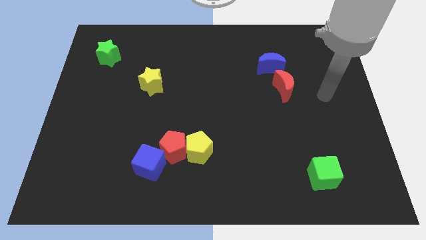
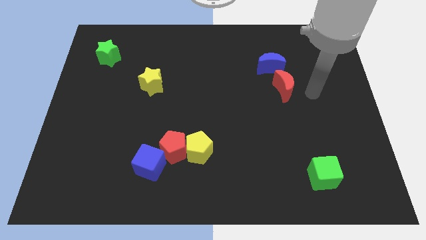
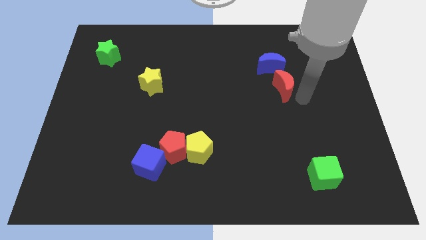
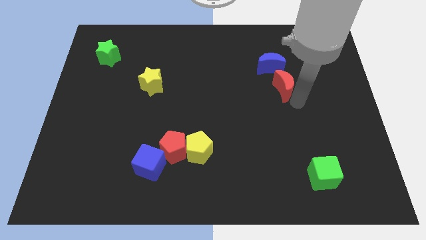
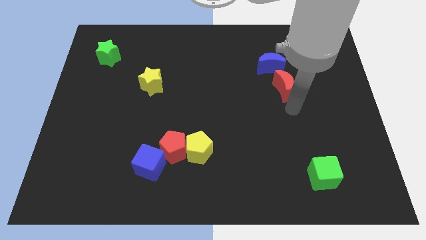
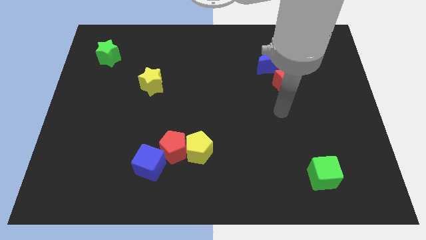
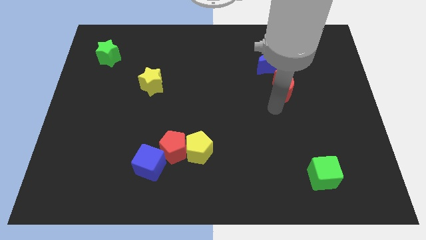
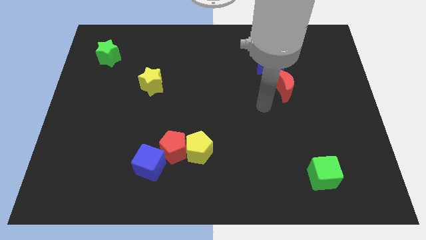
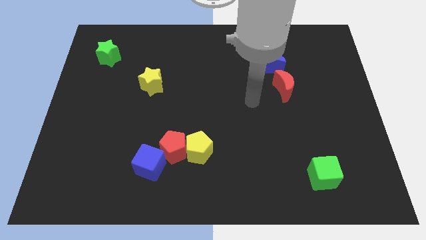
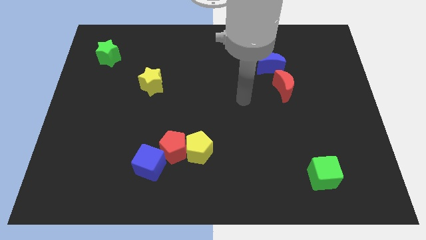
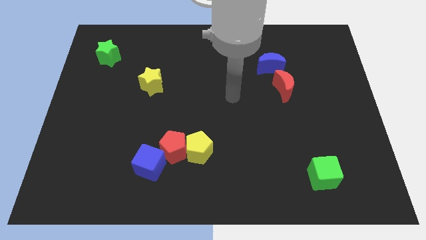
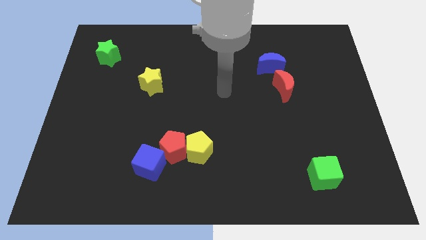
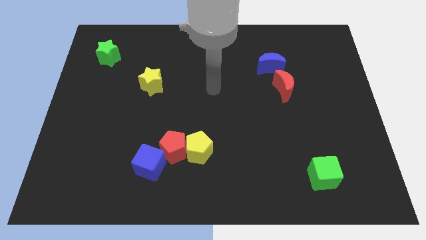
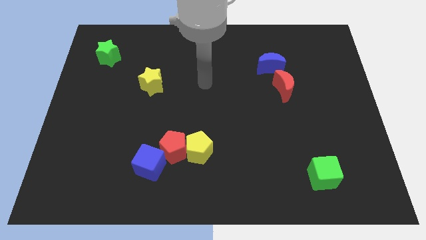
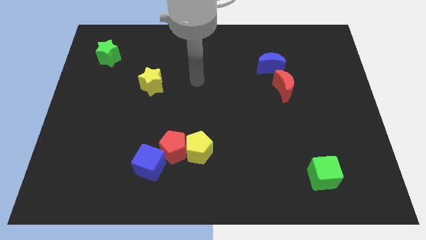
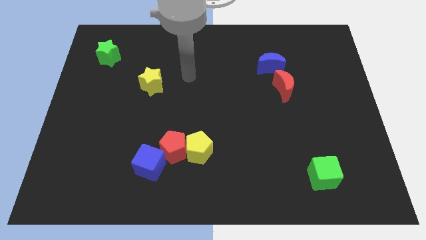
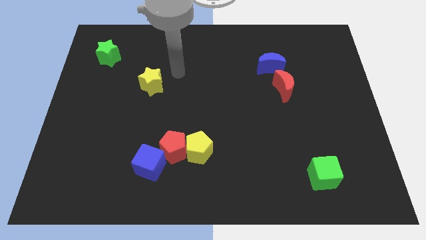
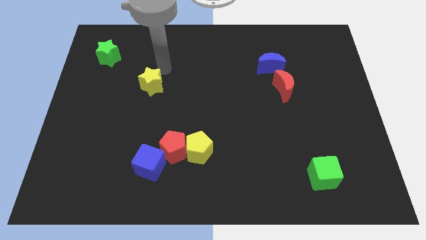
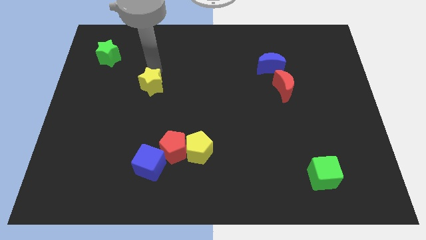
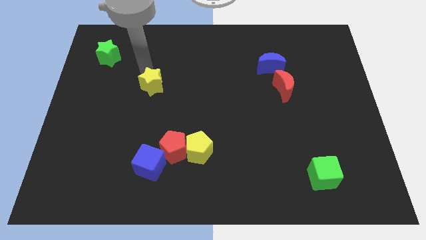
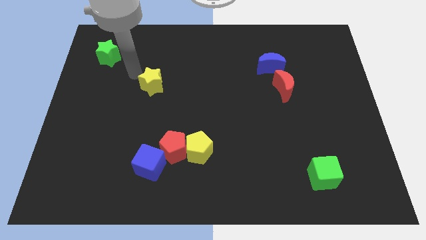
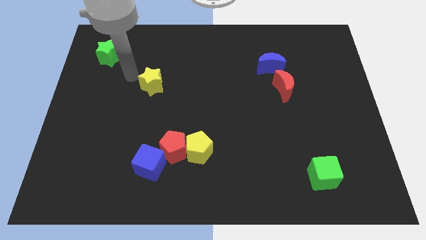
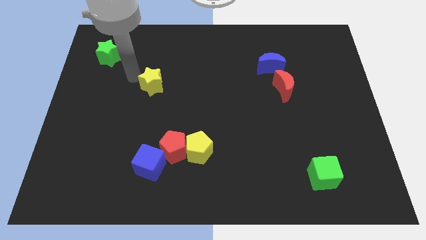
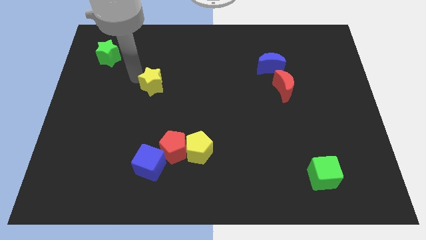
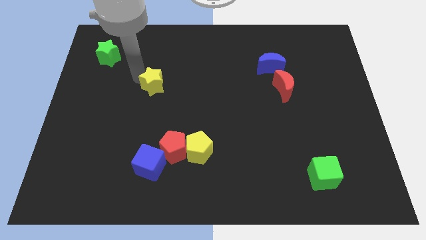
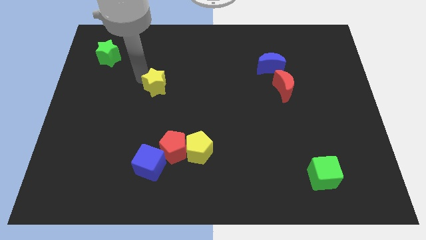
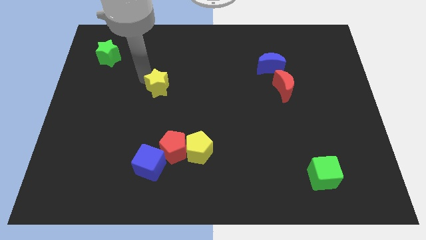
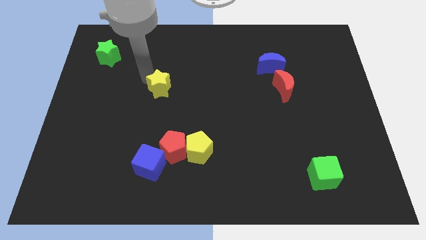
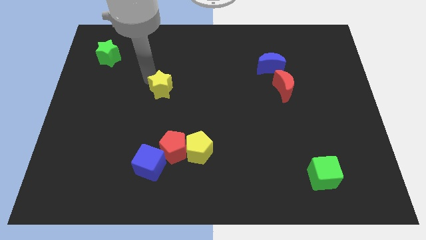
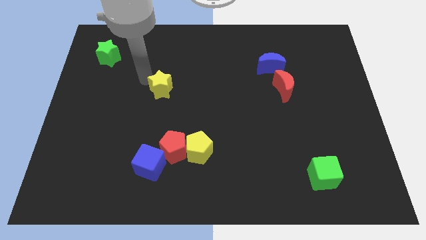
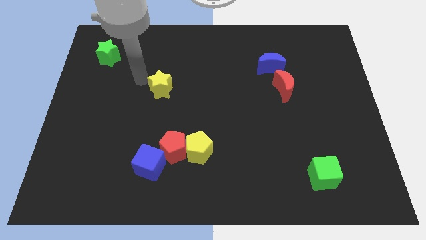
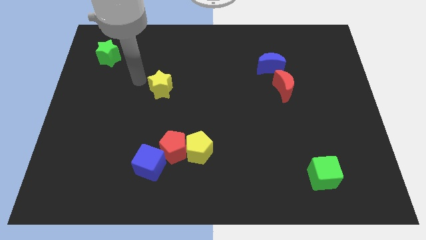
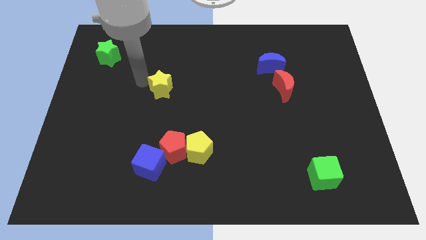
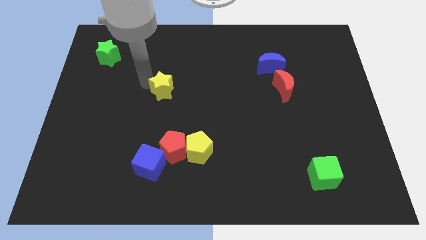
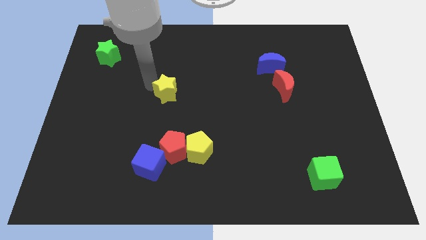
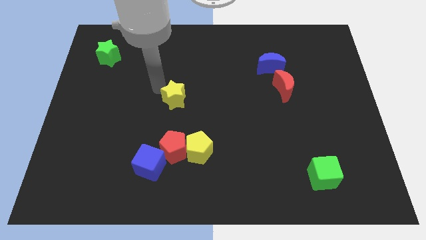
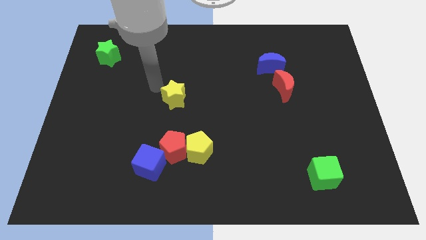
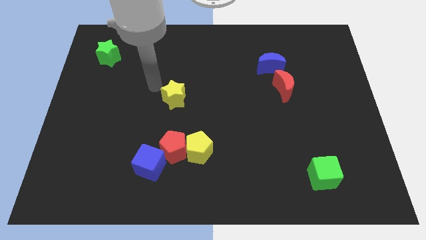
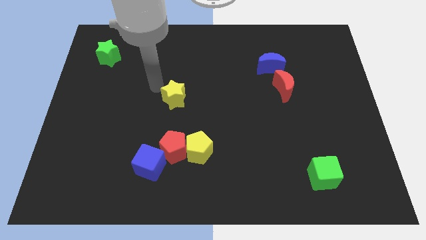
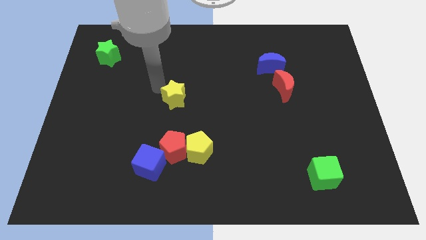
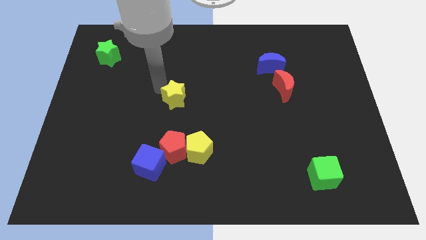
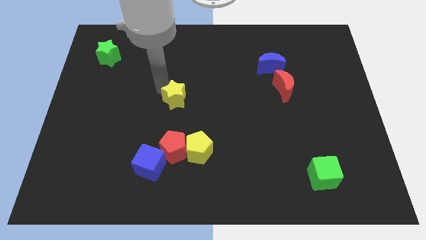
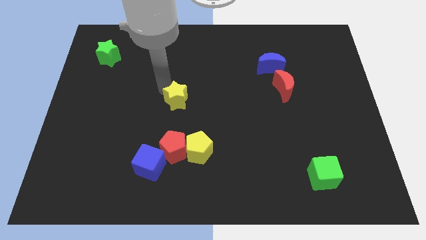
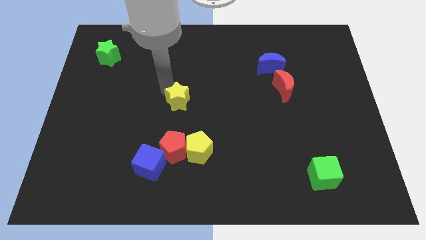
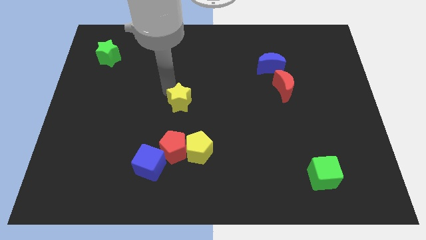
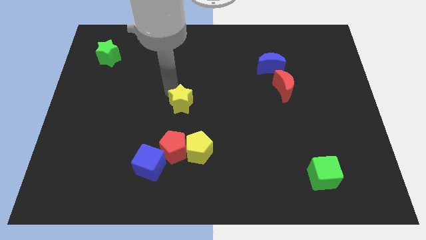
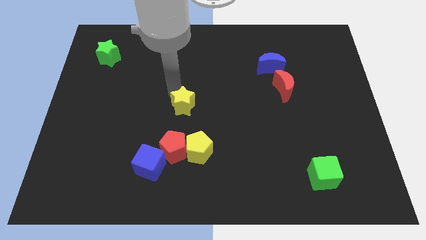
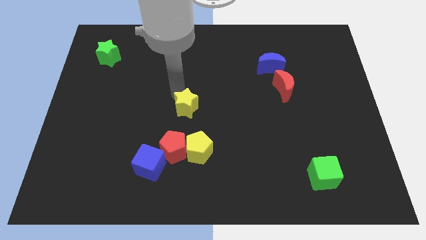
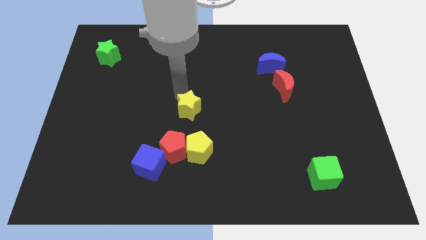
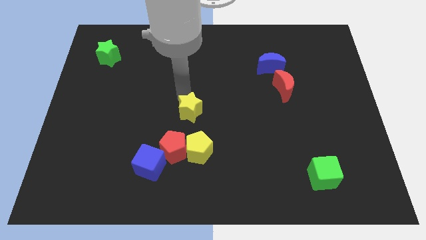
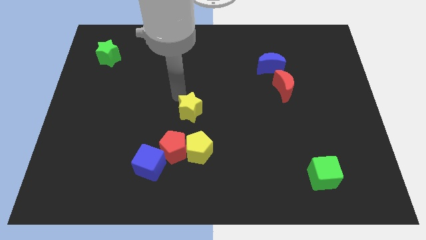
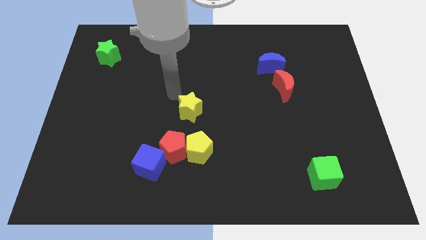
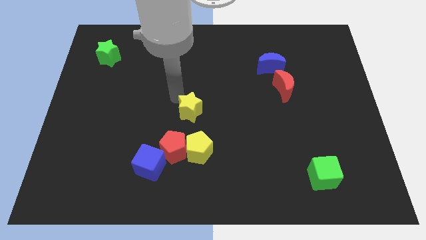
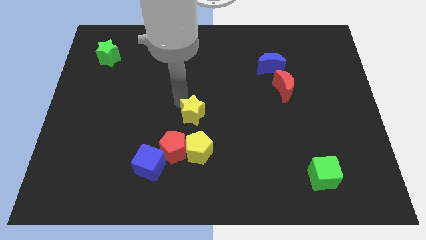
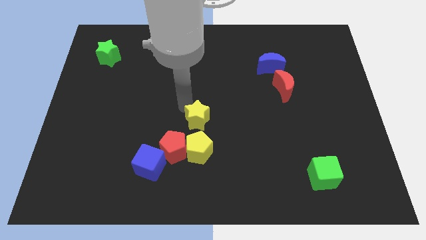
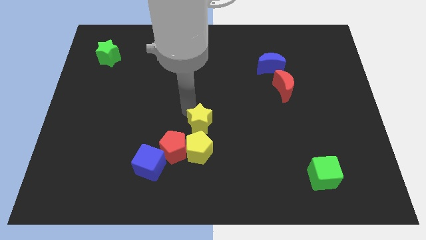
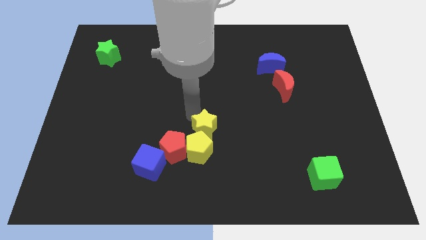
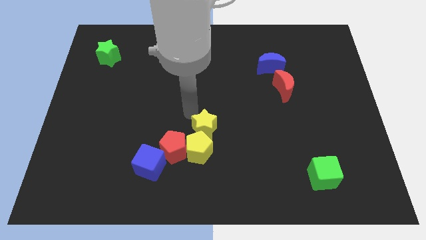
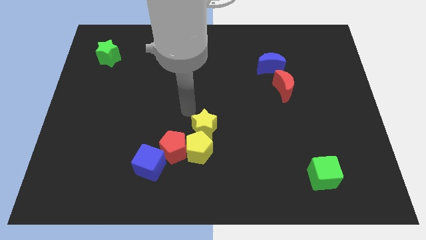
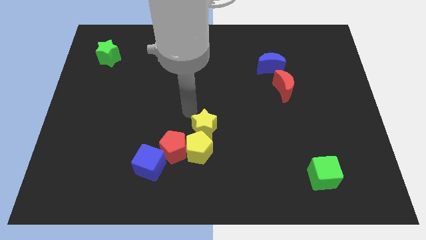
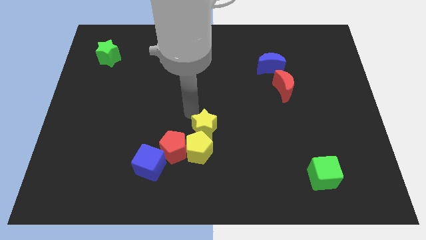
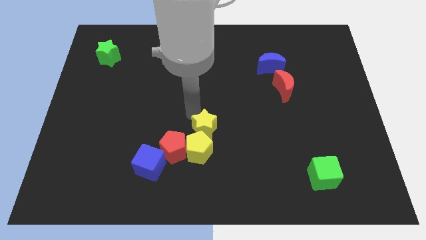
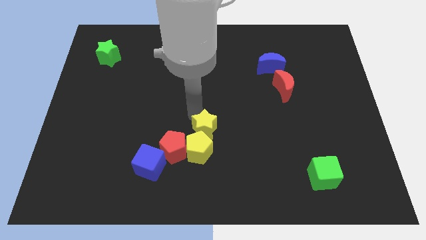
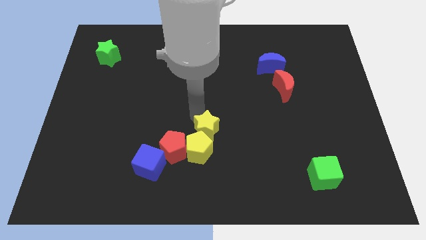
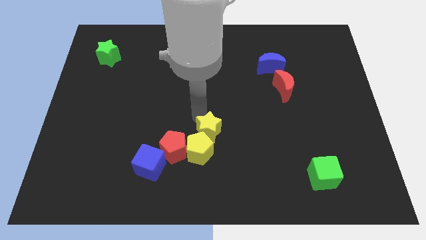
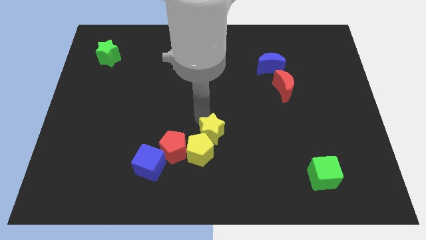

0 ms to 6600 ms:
move the yellow star downwards and to the right

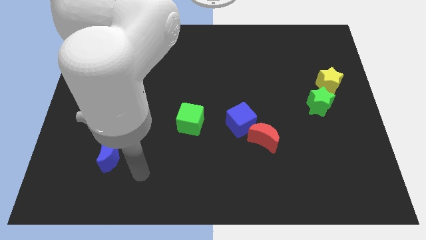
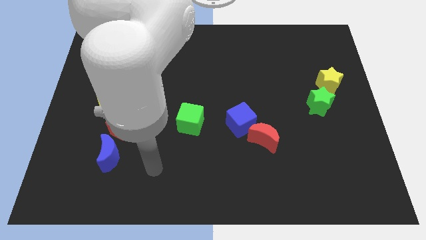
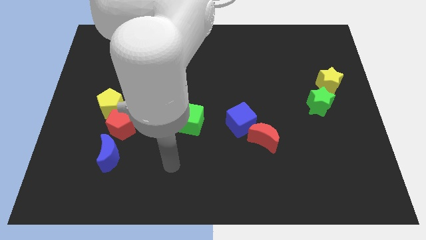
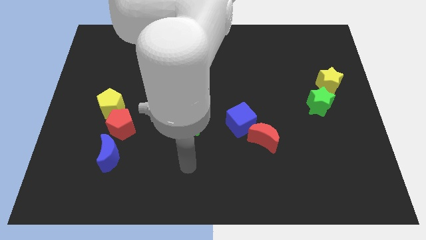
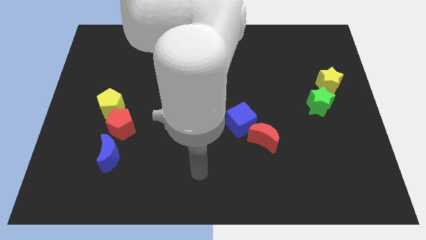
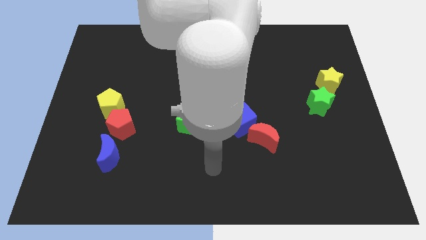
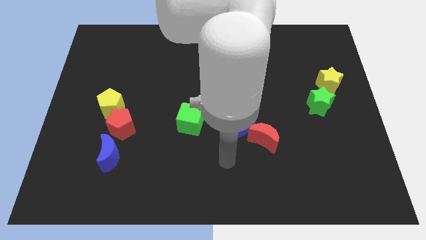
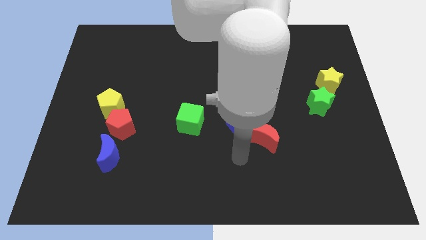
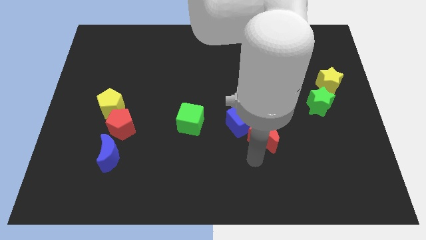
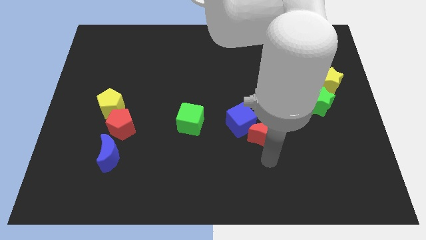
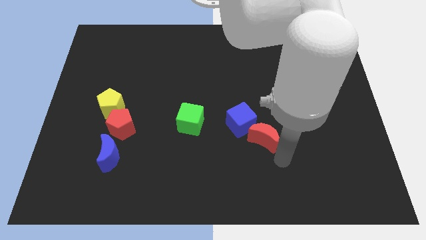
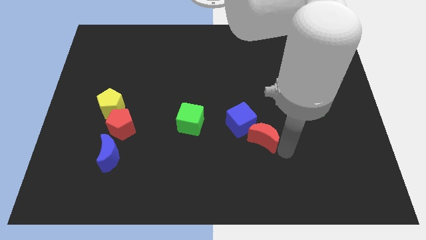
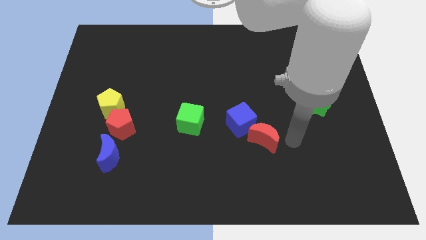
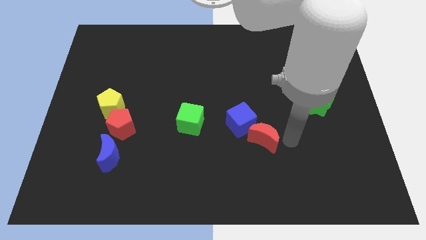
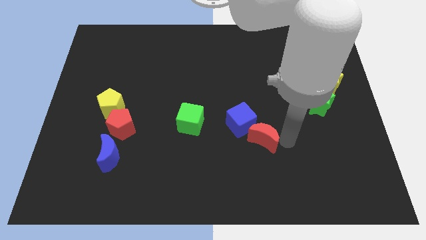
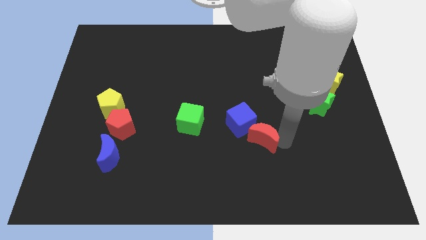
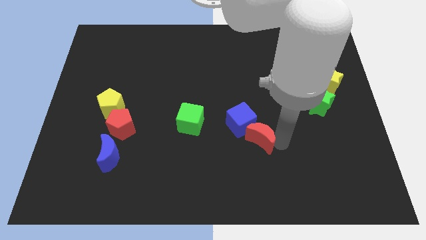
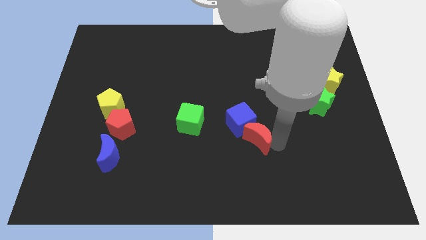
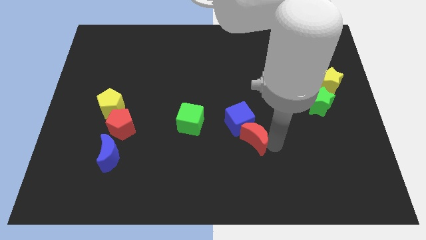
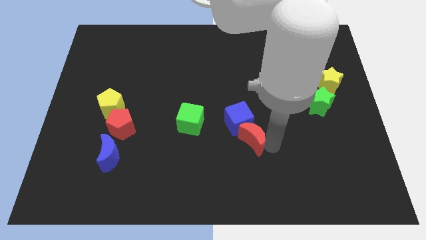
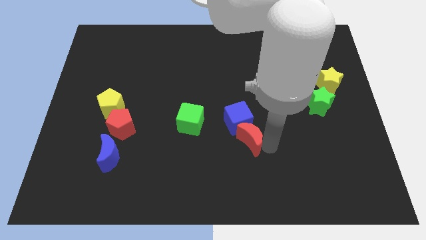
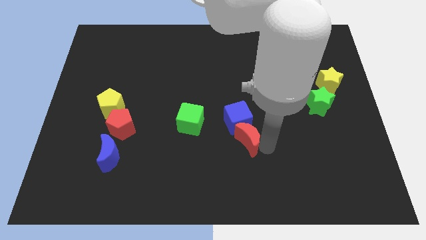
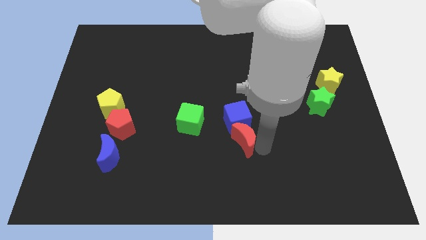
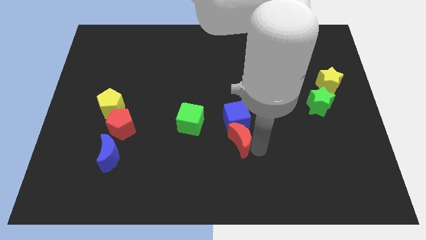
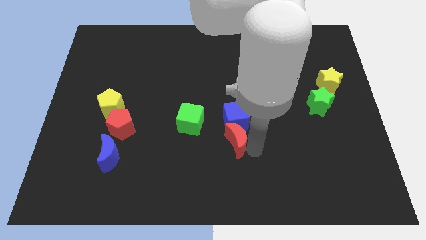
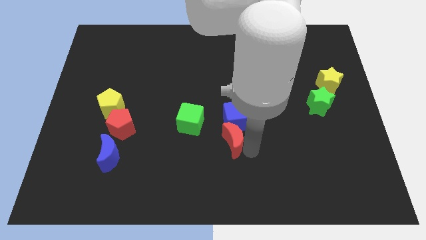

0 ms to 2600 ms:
slide the red moon to the left a little bit
